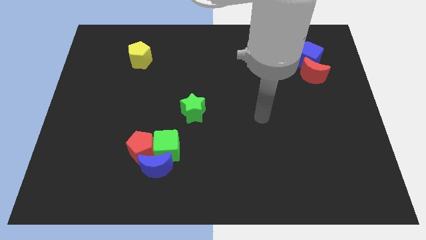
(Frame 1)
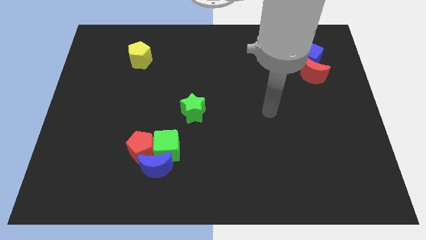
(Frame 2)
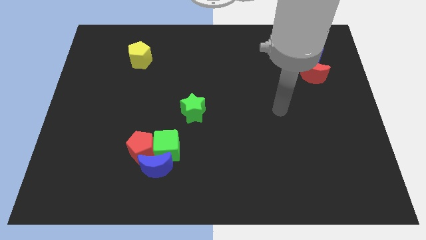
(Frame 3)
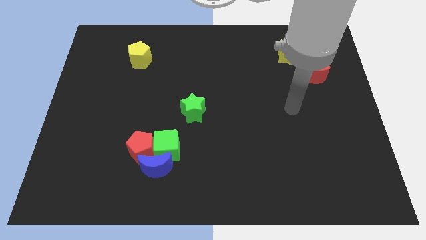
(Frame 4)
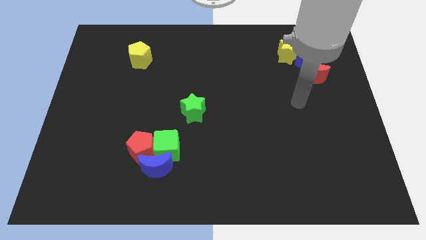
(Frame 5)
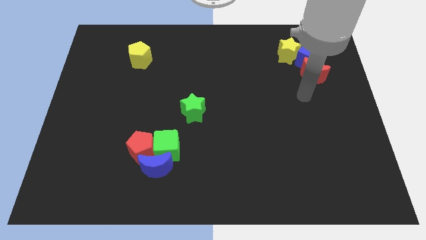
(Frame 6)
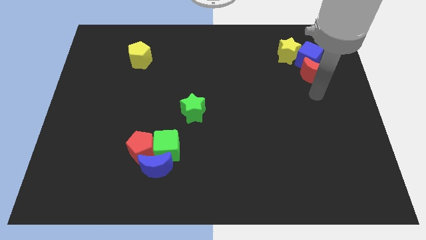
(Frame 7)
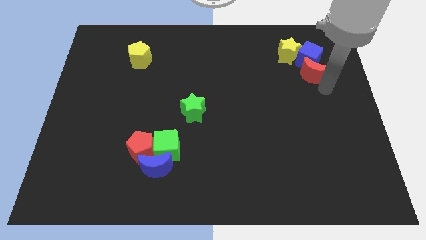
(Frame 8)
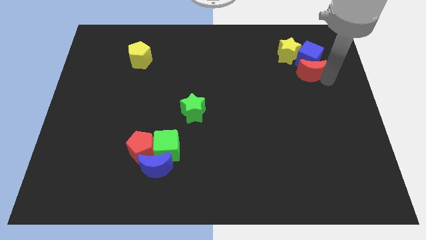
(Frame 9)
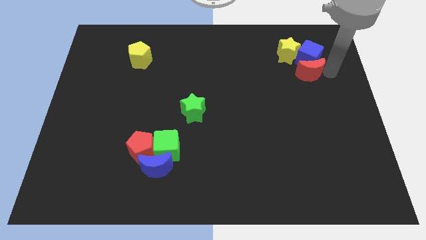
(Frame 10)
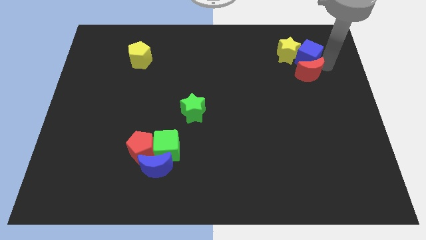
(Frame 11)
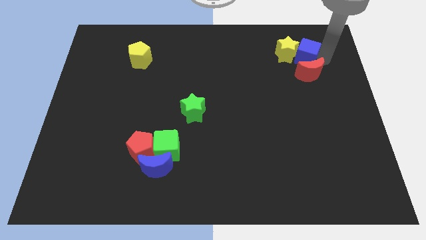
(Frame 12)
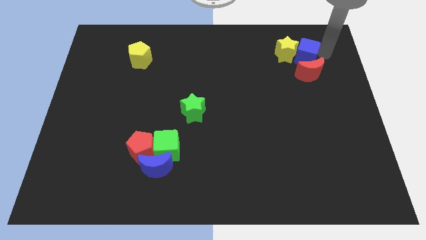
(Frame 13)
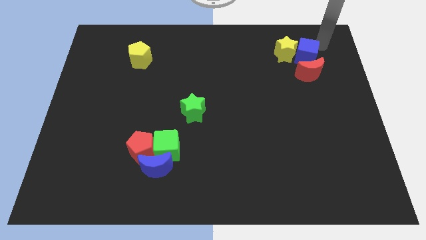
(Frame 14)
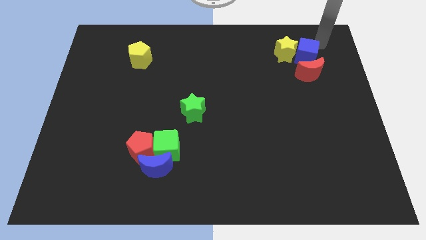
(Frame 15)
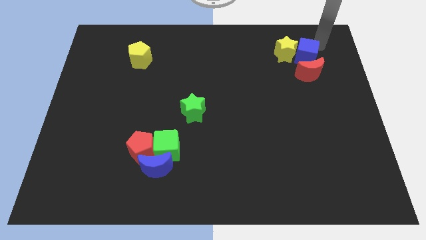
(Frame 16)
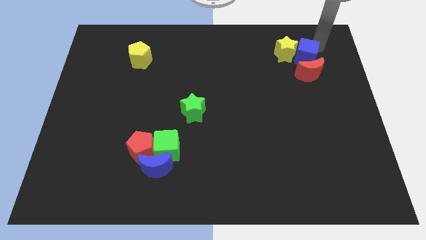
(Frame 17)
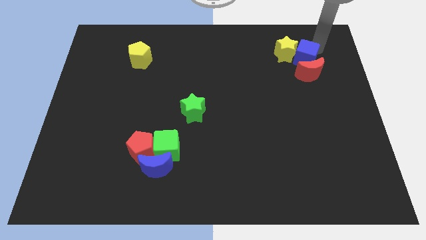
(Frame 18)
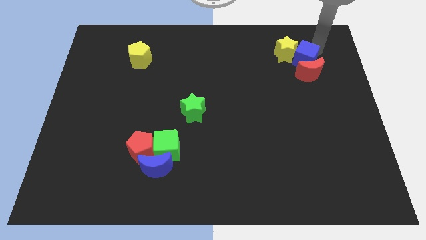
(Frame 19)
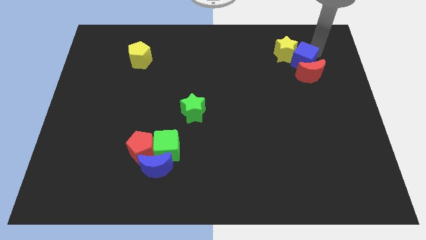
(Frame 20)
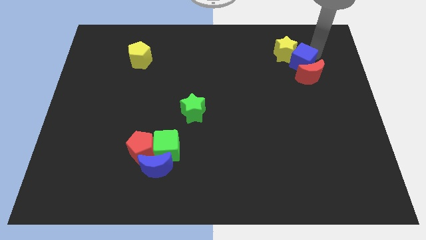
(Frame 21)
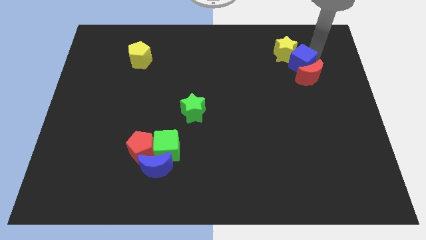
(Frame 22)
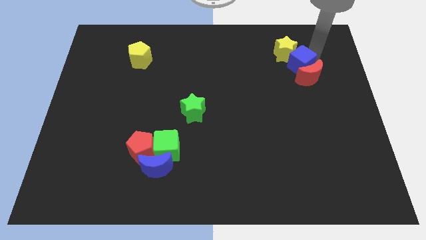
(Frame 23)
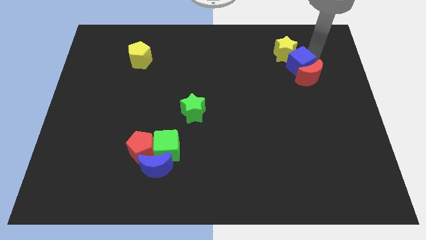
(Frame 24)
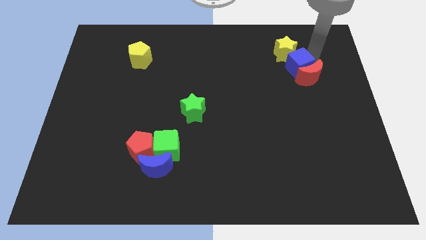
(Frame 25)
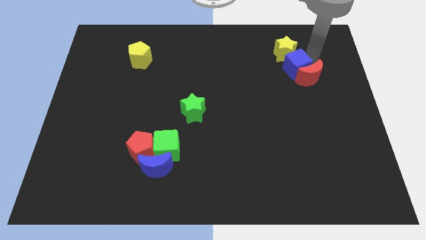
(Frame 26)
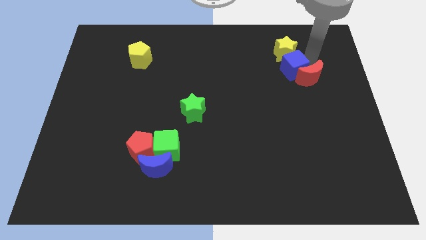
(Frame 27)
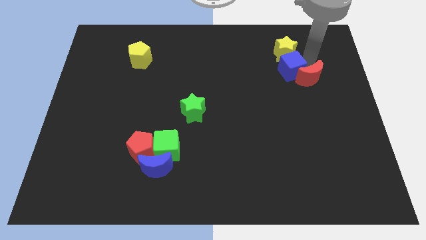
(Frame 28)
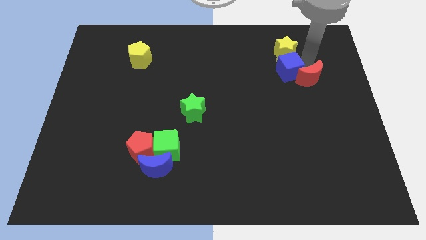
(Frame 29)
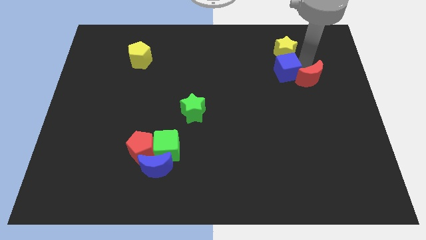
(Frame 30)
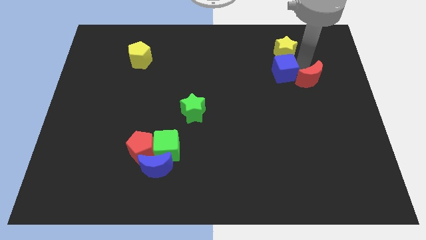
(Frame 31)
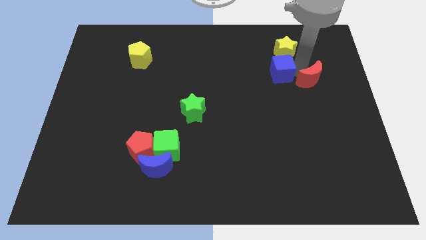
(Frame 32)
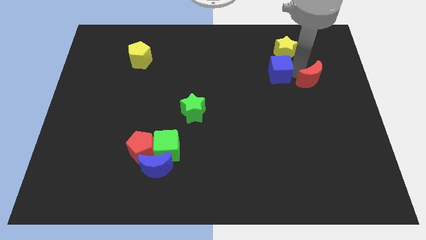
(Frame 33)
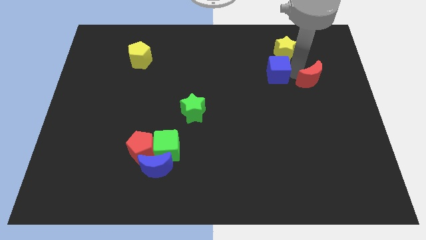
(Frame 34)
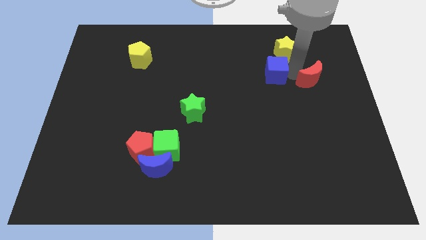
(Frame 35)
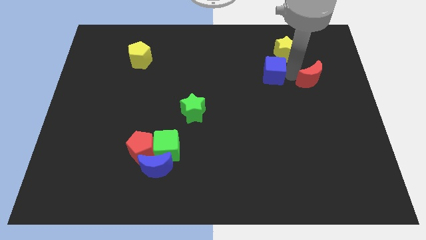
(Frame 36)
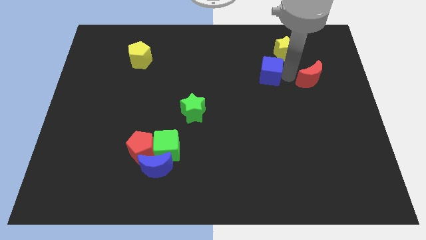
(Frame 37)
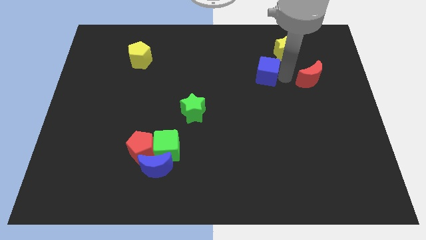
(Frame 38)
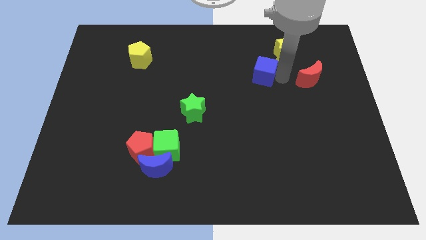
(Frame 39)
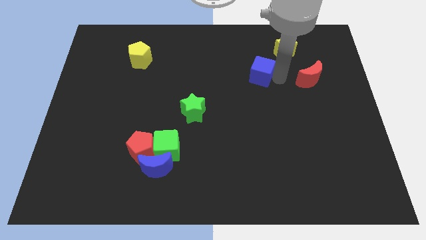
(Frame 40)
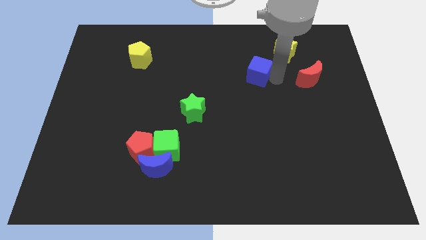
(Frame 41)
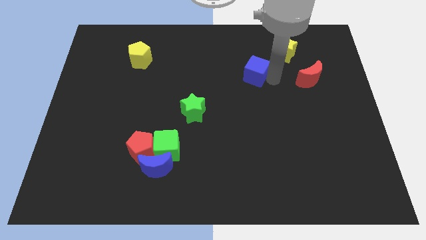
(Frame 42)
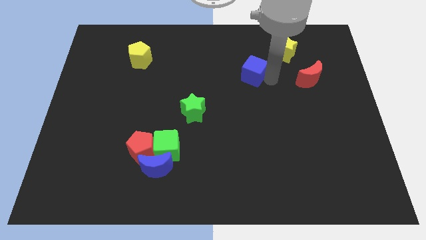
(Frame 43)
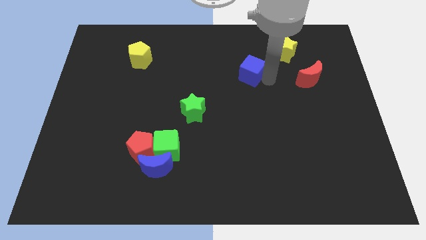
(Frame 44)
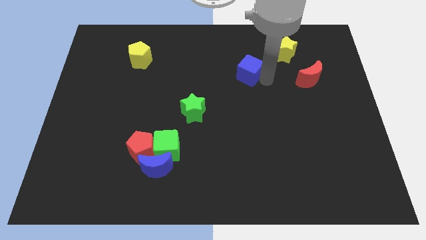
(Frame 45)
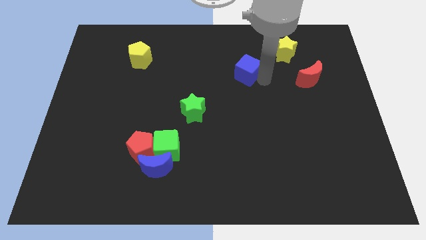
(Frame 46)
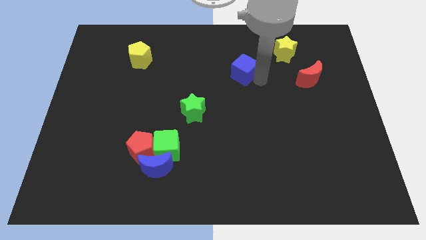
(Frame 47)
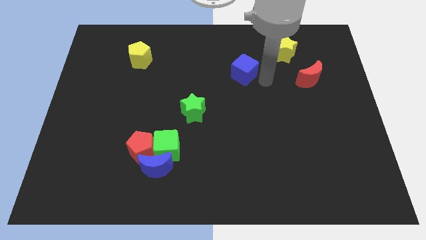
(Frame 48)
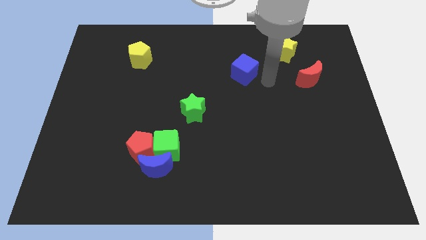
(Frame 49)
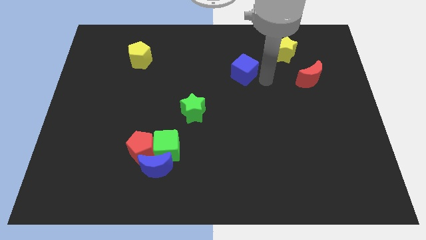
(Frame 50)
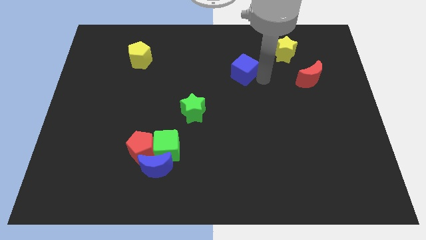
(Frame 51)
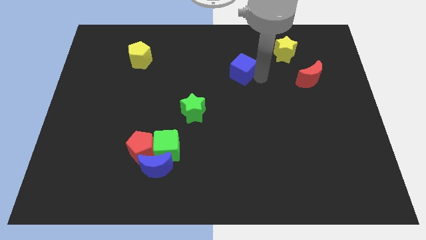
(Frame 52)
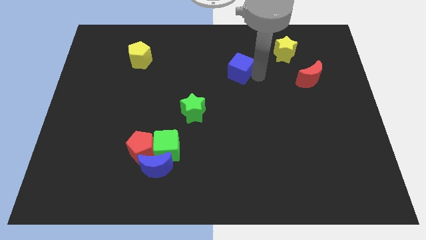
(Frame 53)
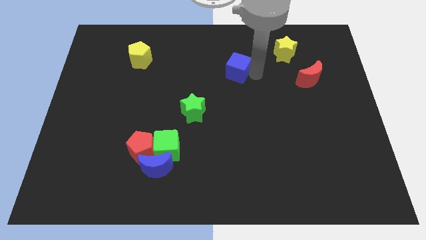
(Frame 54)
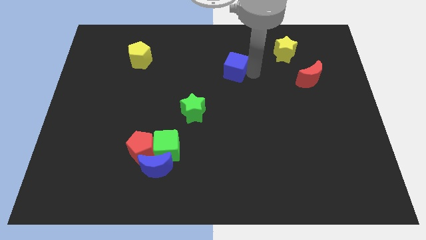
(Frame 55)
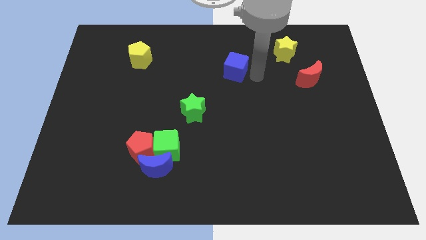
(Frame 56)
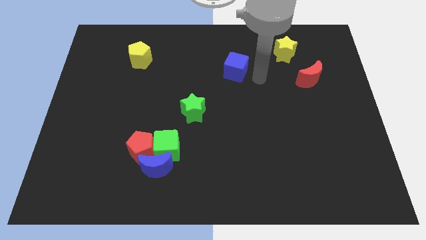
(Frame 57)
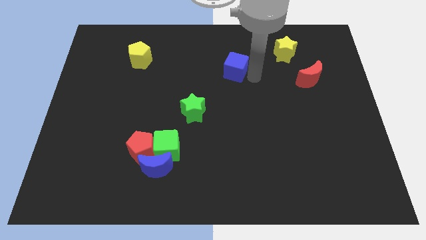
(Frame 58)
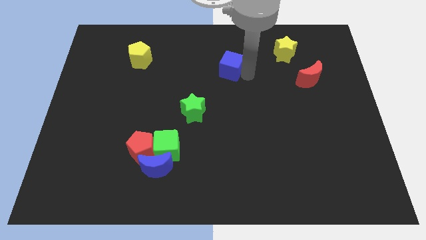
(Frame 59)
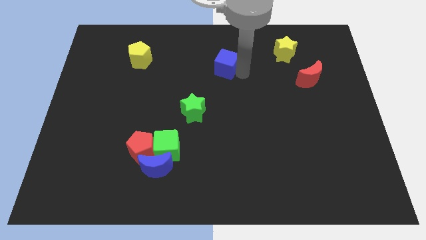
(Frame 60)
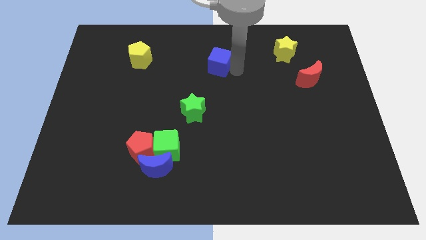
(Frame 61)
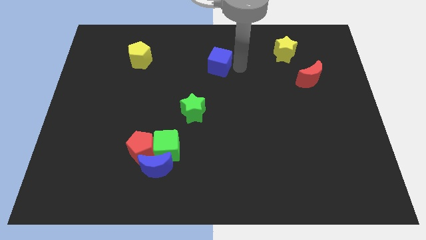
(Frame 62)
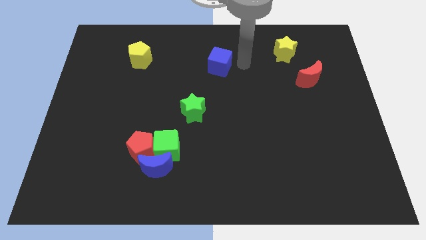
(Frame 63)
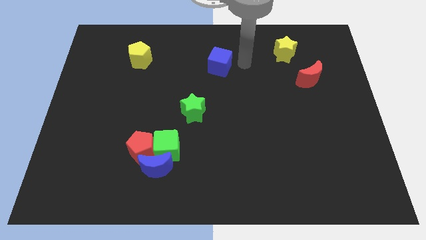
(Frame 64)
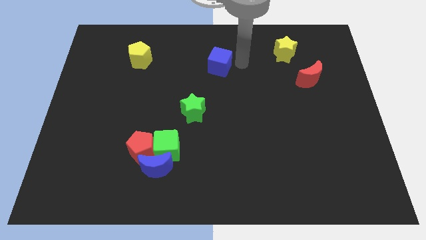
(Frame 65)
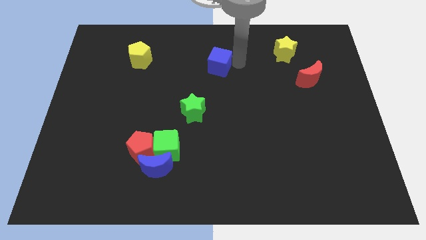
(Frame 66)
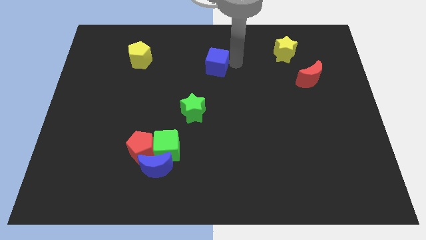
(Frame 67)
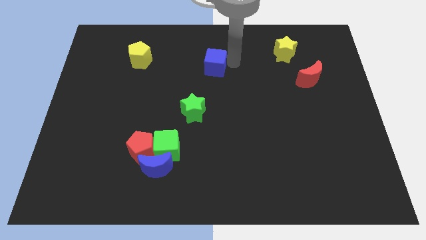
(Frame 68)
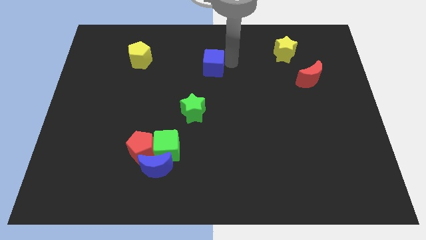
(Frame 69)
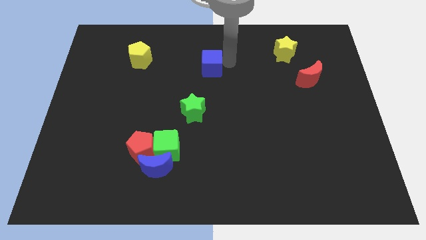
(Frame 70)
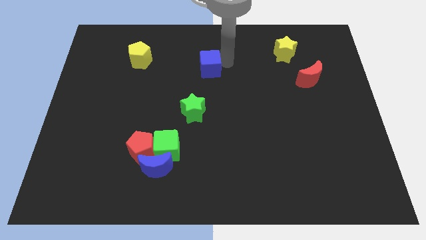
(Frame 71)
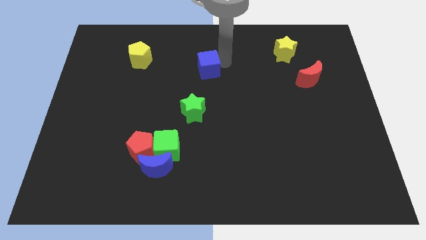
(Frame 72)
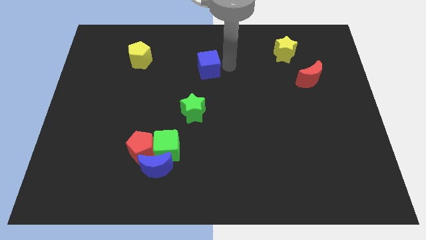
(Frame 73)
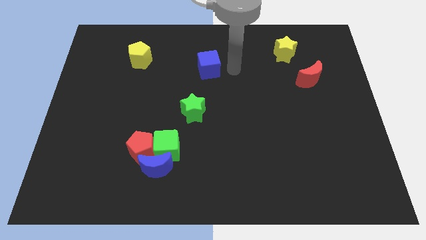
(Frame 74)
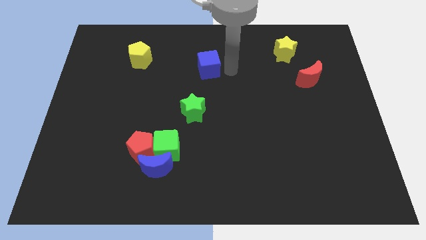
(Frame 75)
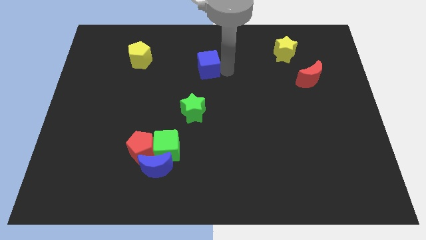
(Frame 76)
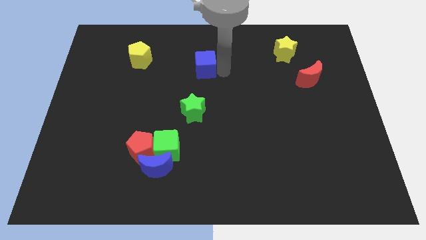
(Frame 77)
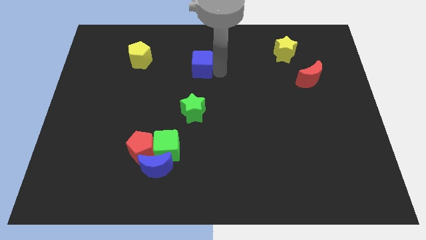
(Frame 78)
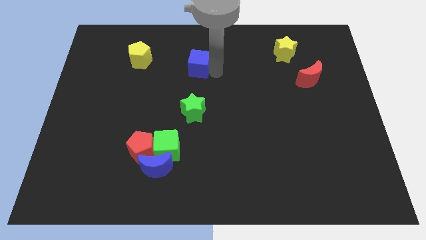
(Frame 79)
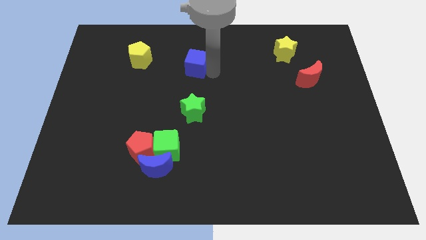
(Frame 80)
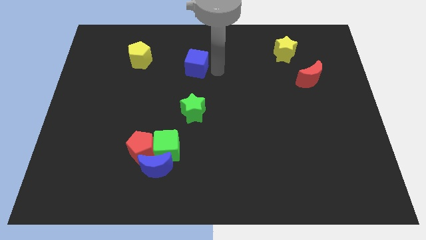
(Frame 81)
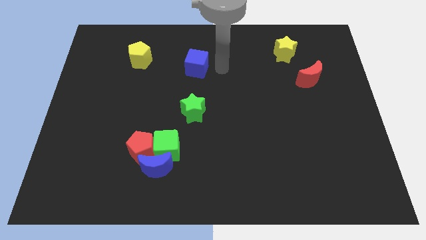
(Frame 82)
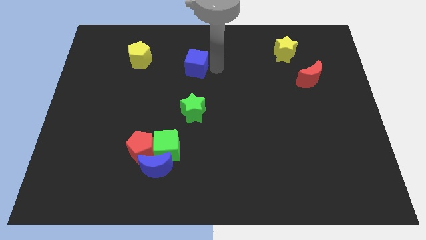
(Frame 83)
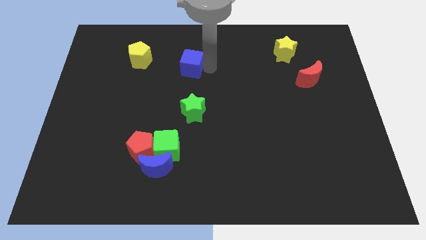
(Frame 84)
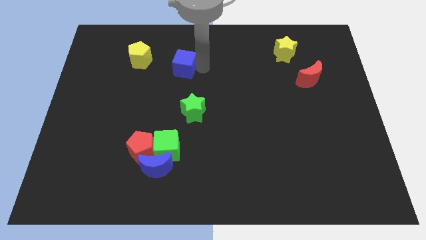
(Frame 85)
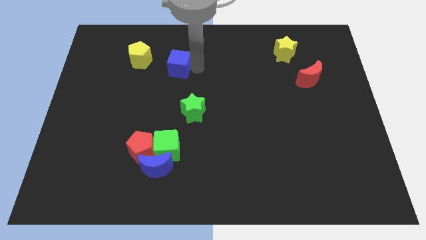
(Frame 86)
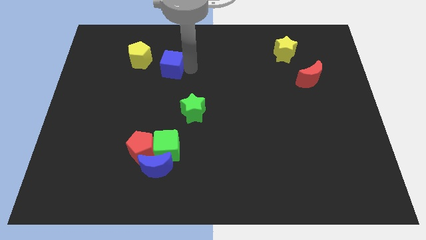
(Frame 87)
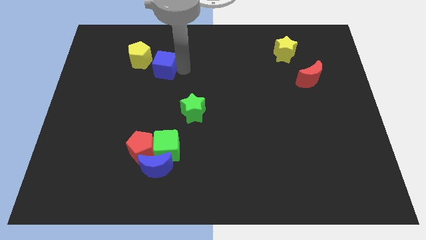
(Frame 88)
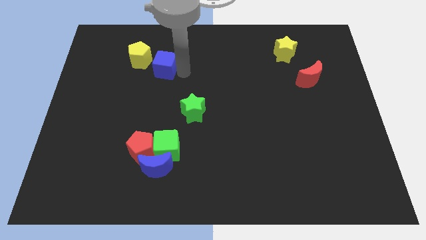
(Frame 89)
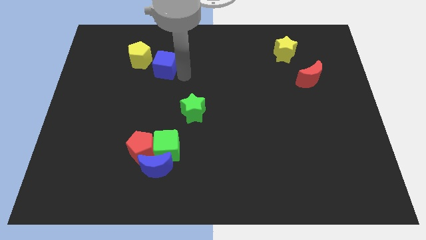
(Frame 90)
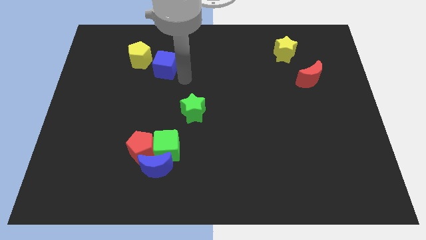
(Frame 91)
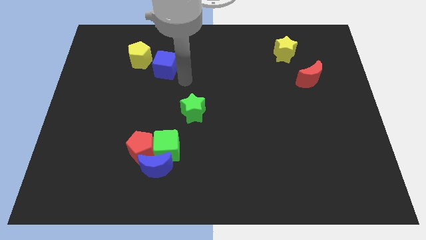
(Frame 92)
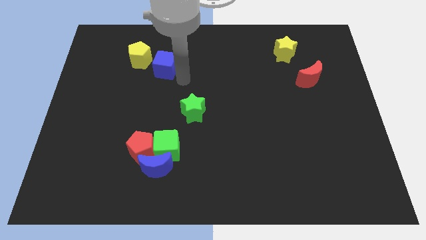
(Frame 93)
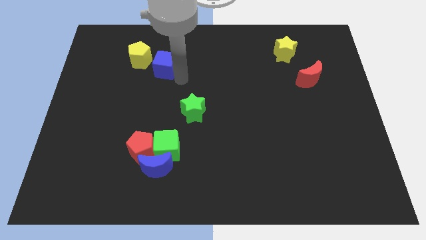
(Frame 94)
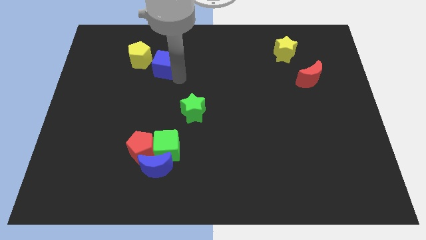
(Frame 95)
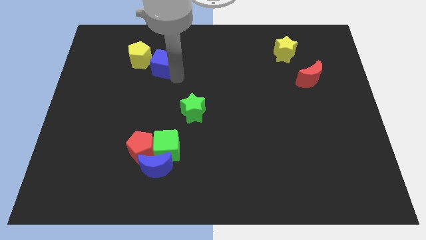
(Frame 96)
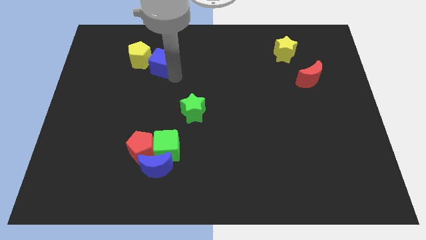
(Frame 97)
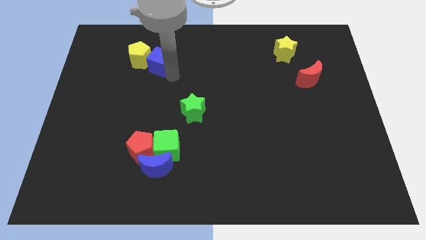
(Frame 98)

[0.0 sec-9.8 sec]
move the blue cube close to the yellow pentagon
